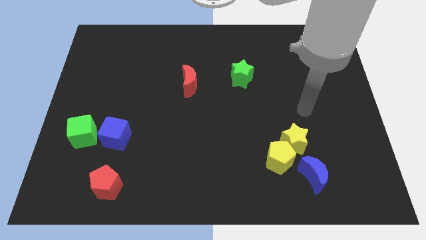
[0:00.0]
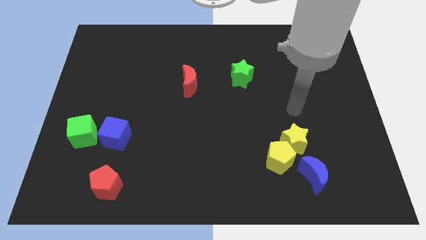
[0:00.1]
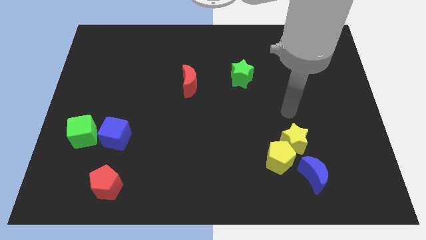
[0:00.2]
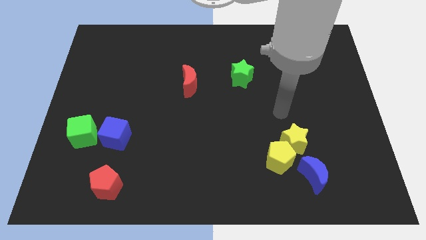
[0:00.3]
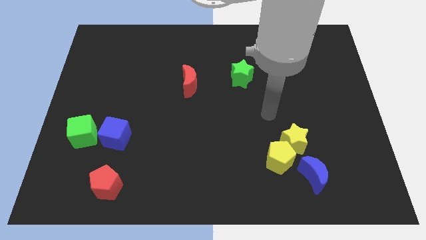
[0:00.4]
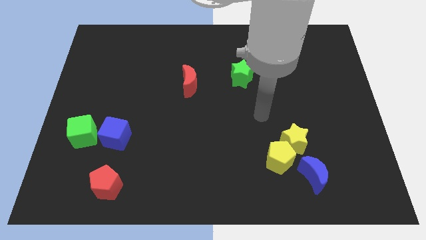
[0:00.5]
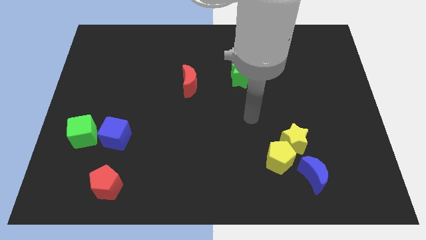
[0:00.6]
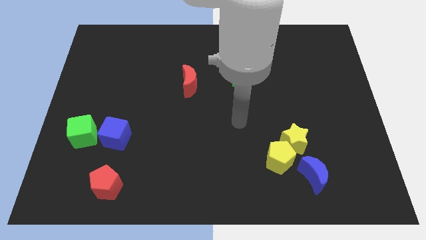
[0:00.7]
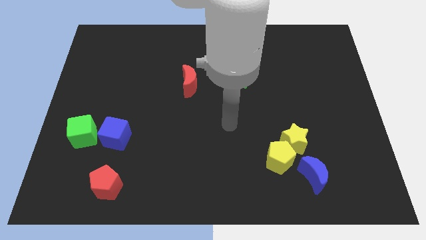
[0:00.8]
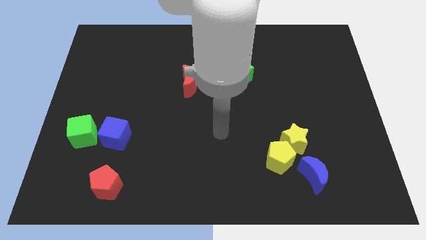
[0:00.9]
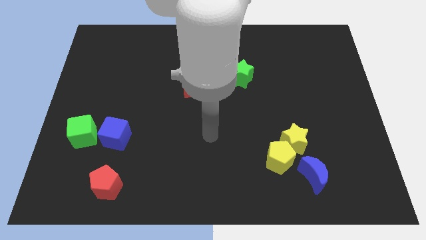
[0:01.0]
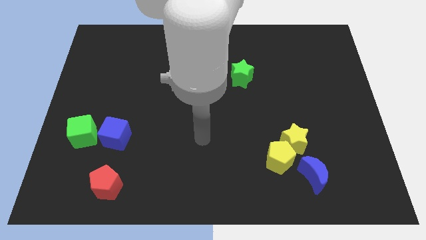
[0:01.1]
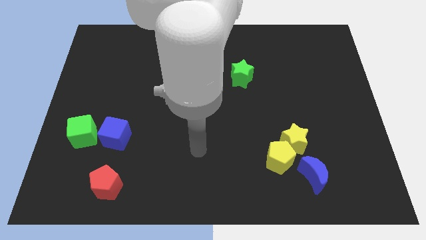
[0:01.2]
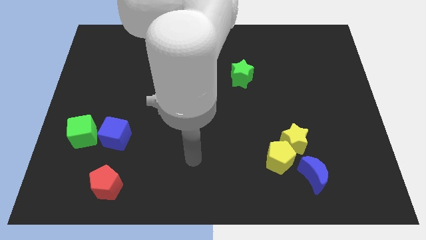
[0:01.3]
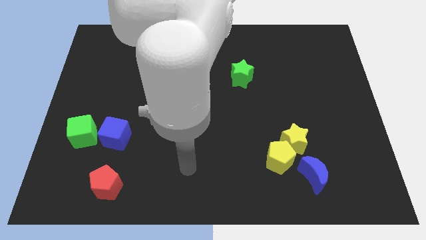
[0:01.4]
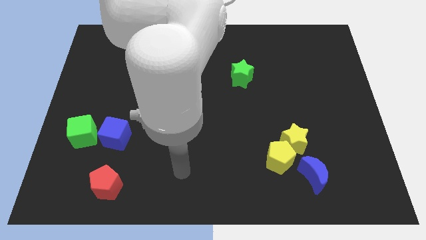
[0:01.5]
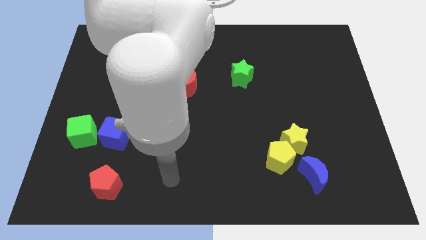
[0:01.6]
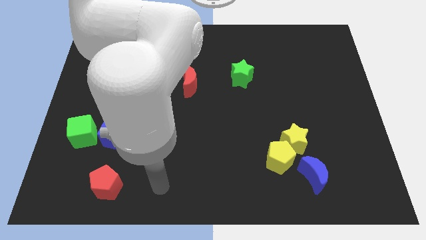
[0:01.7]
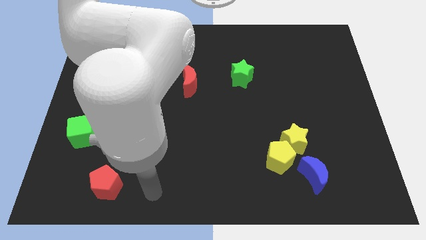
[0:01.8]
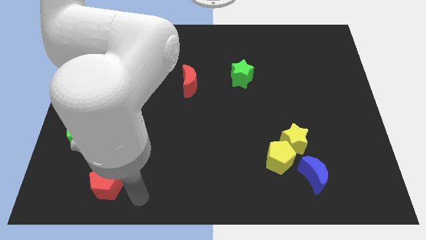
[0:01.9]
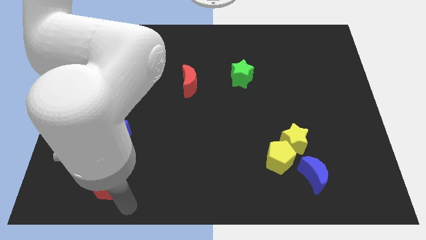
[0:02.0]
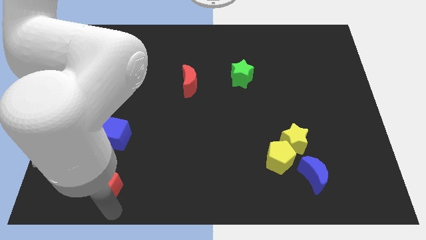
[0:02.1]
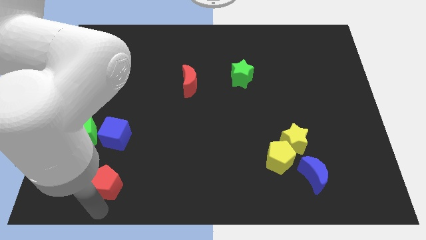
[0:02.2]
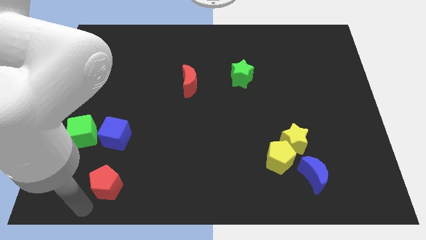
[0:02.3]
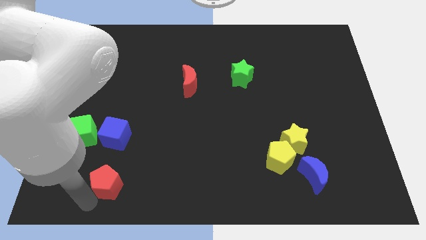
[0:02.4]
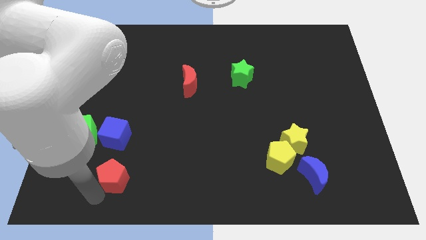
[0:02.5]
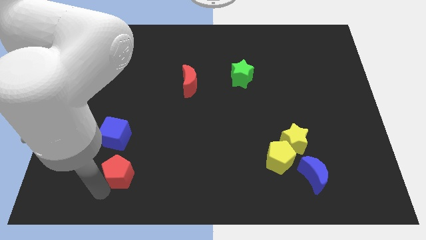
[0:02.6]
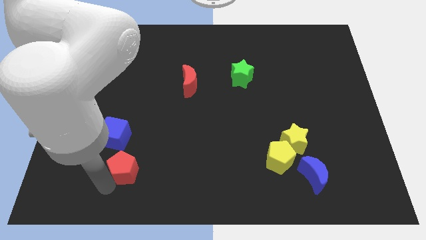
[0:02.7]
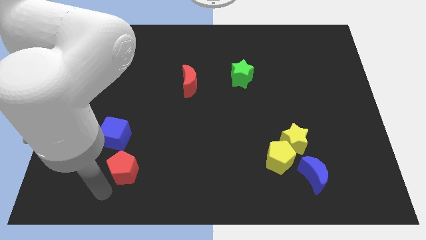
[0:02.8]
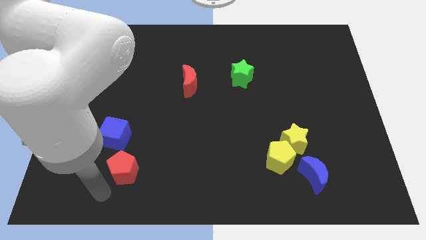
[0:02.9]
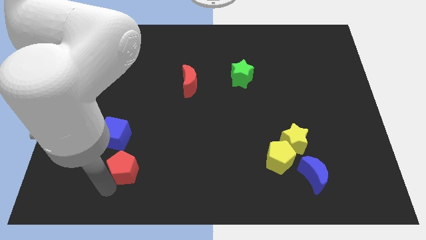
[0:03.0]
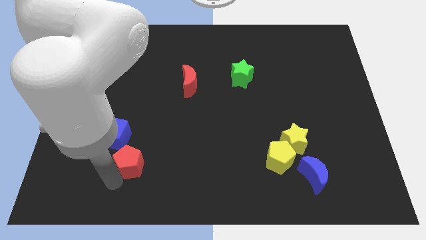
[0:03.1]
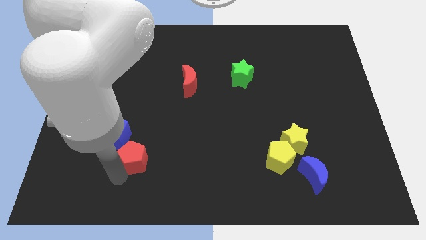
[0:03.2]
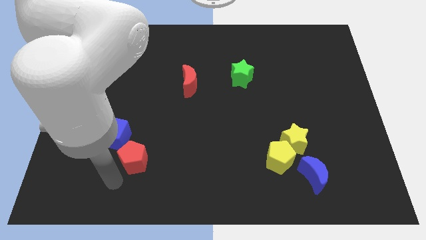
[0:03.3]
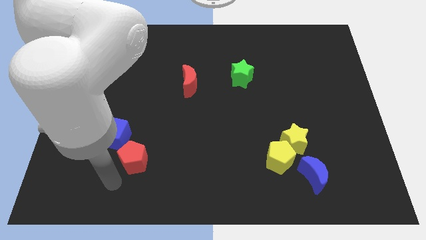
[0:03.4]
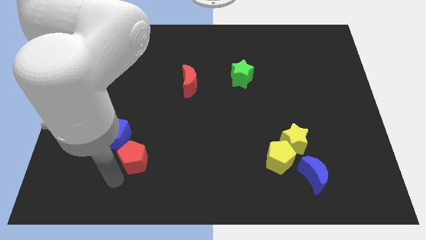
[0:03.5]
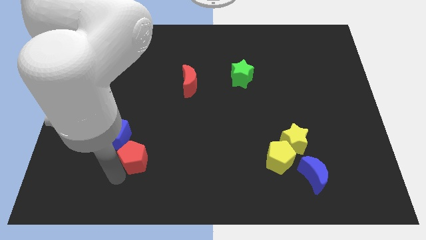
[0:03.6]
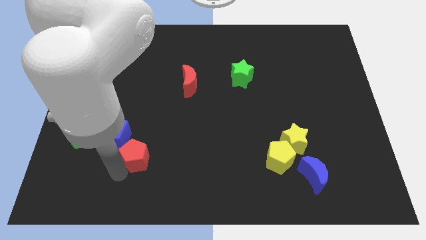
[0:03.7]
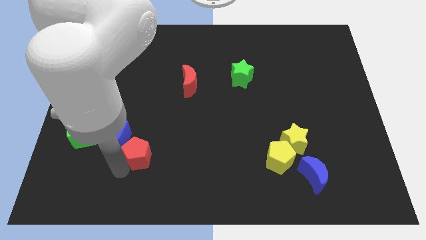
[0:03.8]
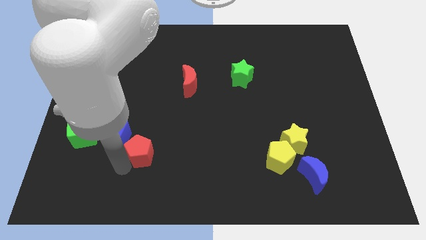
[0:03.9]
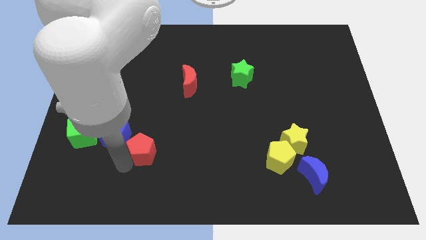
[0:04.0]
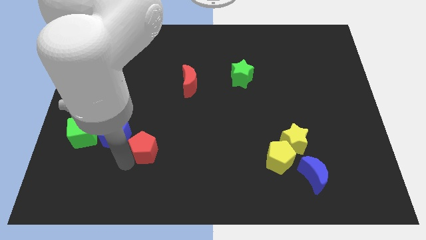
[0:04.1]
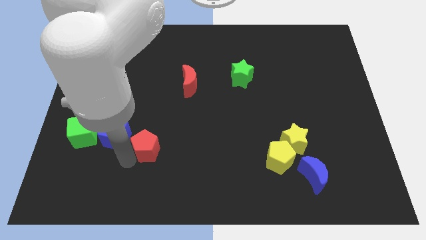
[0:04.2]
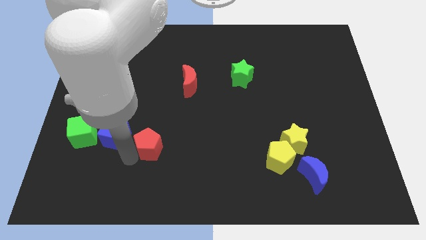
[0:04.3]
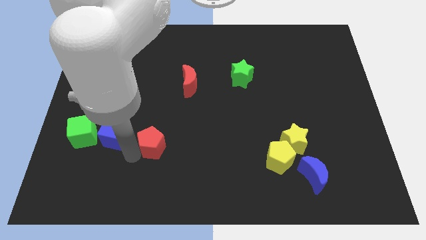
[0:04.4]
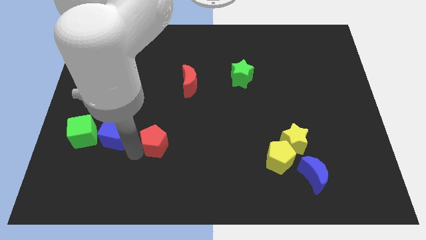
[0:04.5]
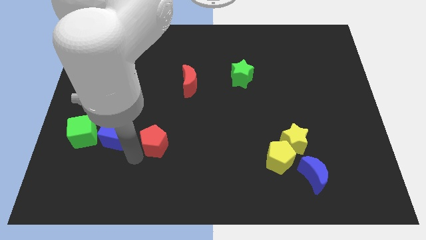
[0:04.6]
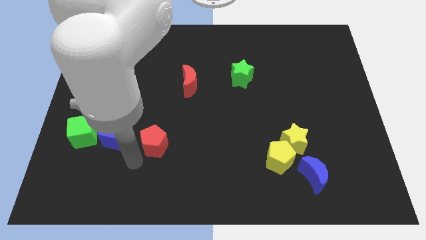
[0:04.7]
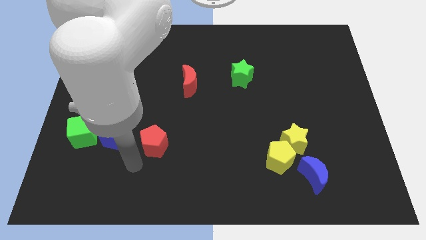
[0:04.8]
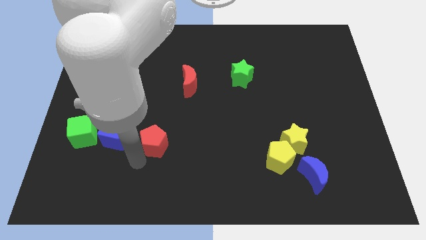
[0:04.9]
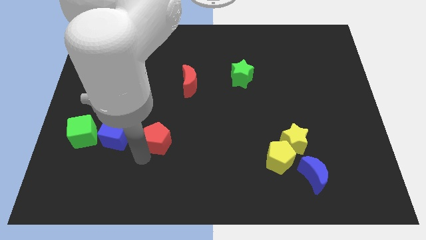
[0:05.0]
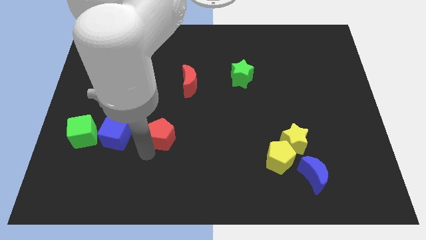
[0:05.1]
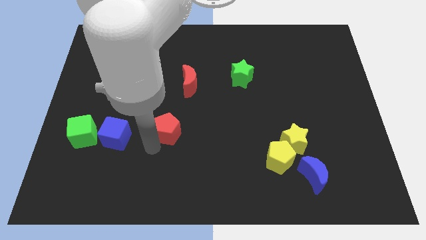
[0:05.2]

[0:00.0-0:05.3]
push the red pentagon to the bottom side of the red moon

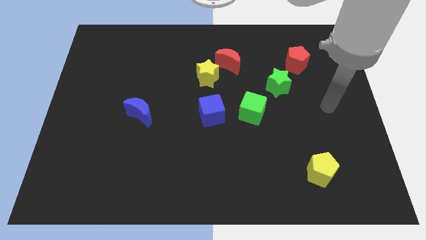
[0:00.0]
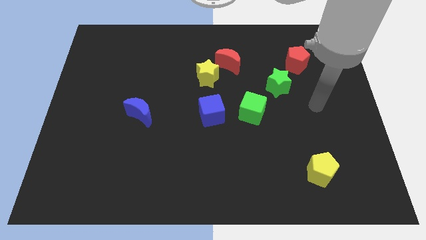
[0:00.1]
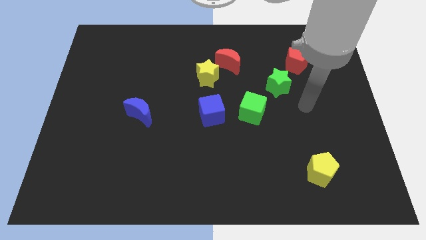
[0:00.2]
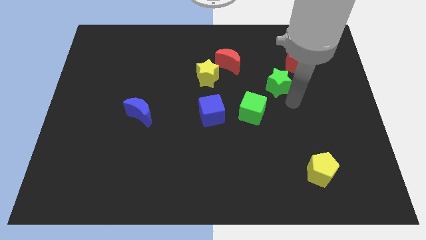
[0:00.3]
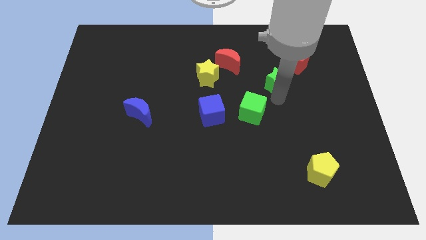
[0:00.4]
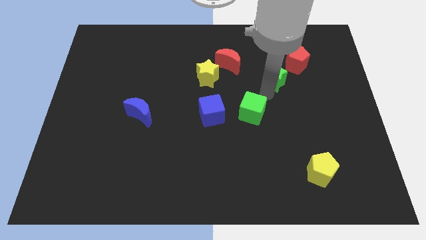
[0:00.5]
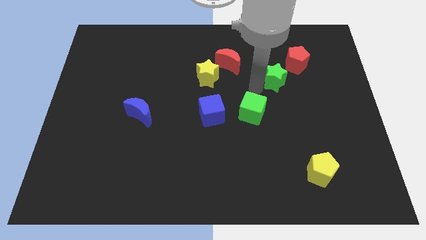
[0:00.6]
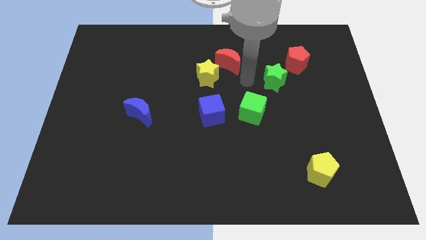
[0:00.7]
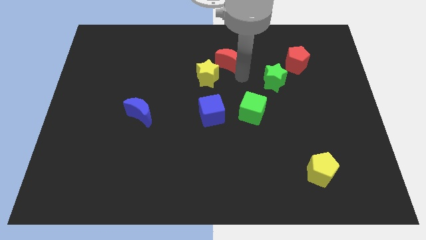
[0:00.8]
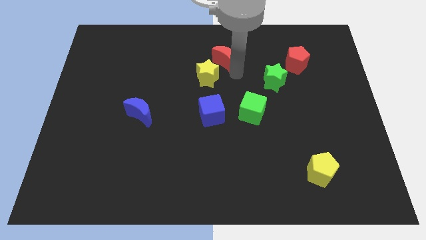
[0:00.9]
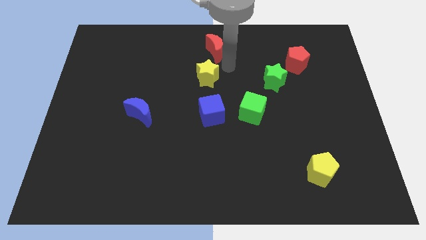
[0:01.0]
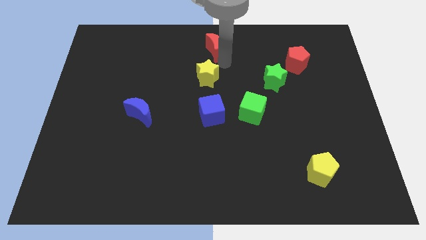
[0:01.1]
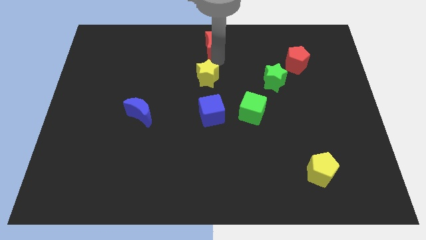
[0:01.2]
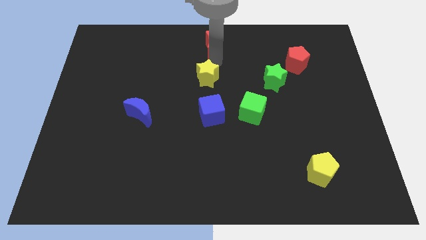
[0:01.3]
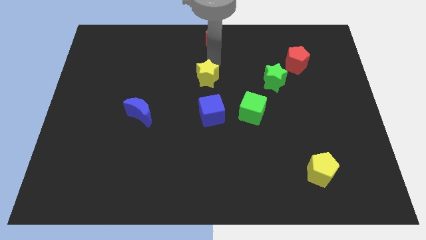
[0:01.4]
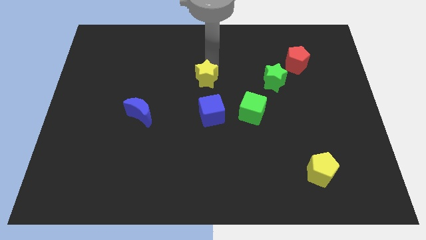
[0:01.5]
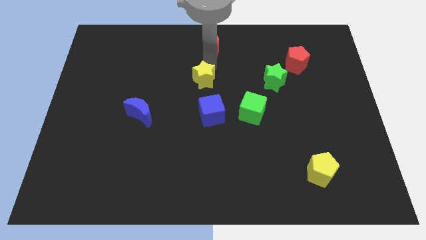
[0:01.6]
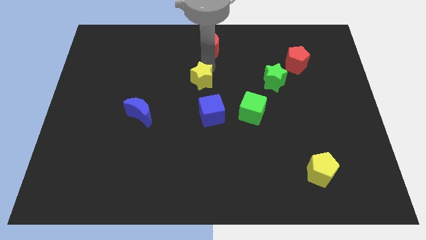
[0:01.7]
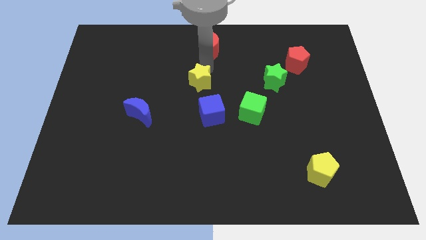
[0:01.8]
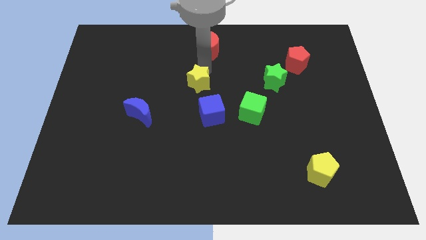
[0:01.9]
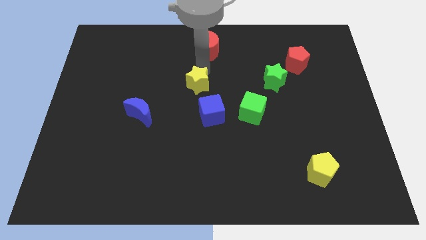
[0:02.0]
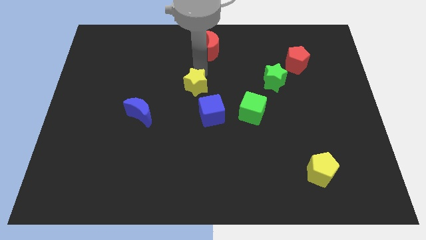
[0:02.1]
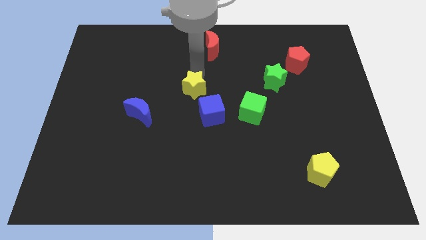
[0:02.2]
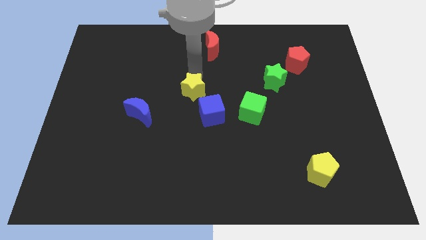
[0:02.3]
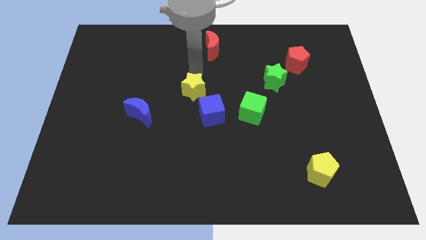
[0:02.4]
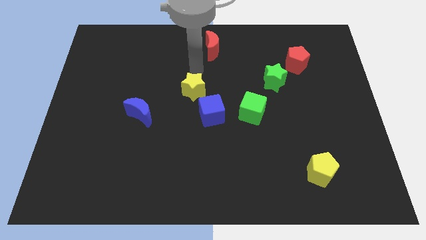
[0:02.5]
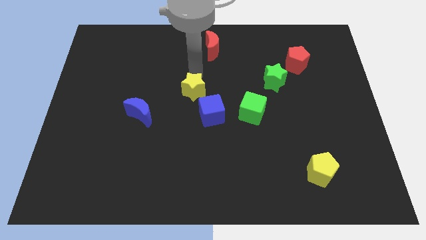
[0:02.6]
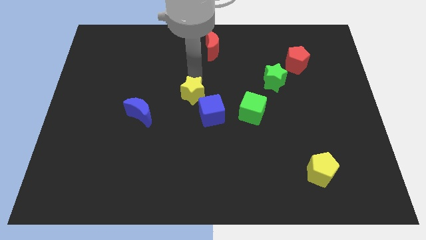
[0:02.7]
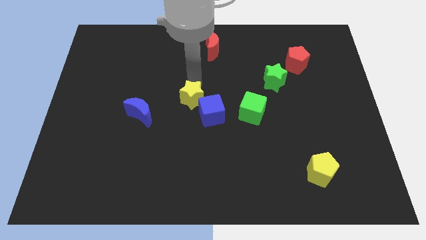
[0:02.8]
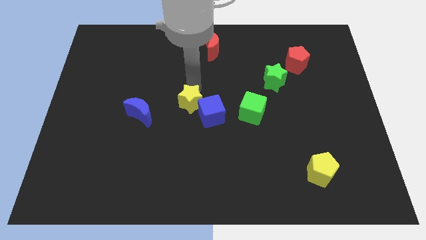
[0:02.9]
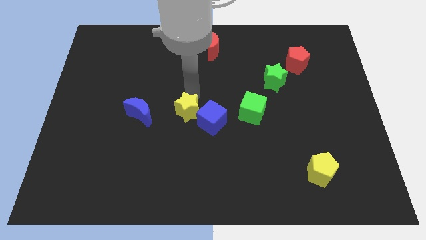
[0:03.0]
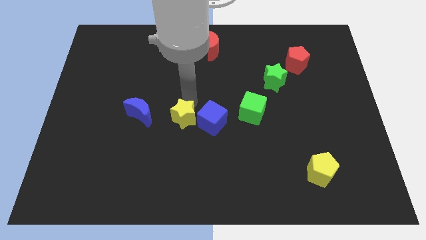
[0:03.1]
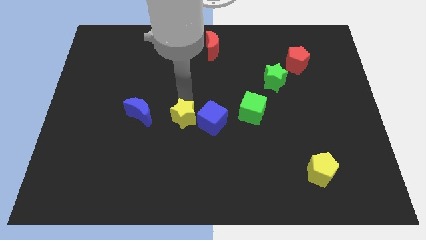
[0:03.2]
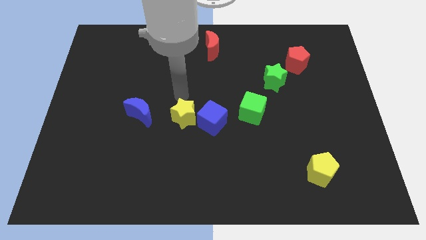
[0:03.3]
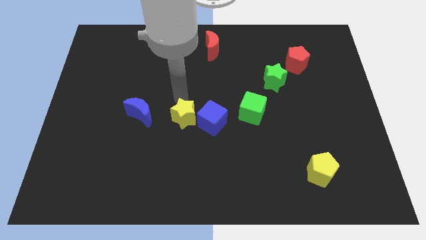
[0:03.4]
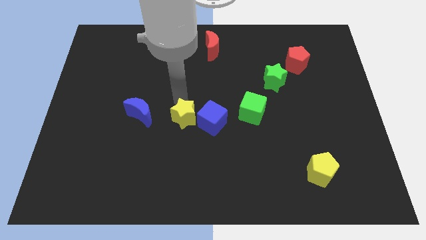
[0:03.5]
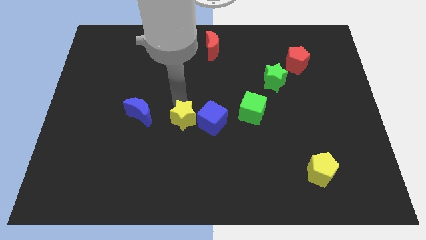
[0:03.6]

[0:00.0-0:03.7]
push the yellow star to the bottom left of the blue cube
